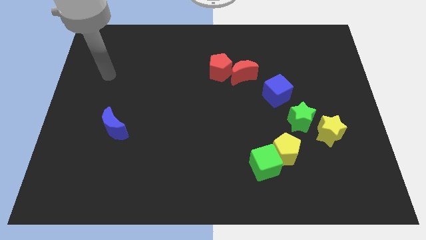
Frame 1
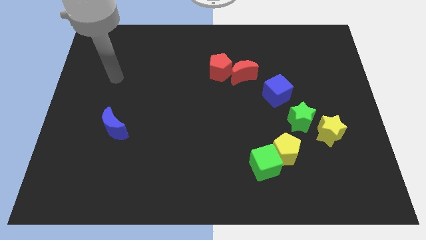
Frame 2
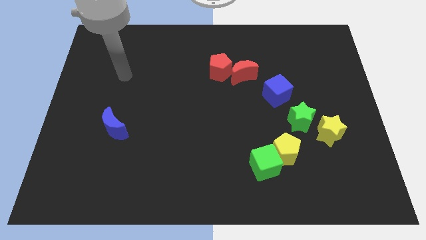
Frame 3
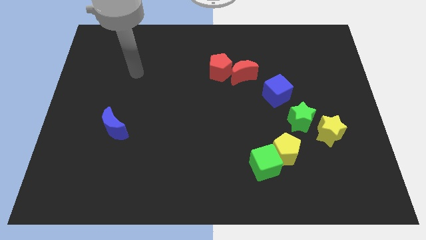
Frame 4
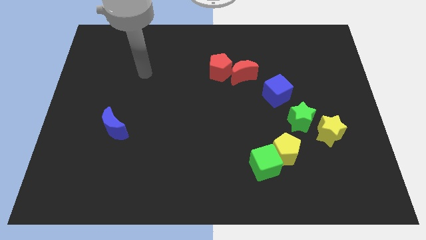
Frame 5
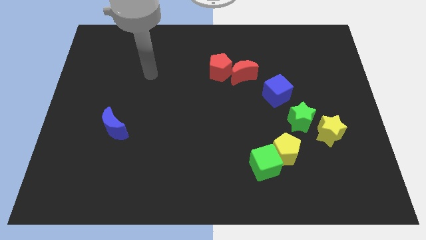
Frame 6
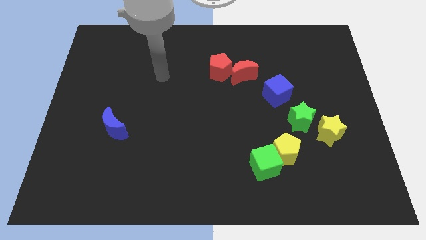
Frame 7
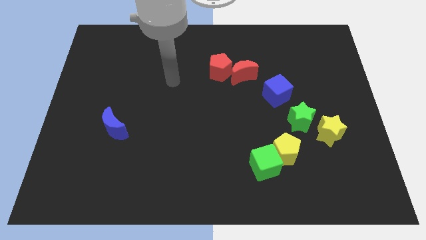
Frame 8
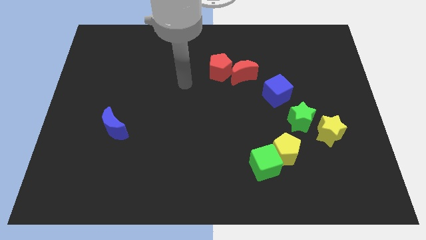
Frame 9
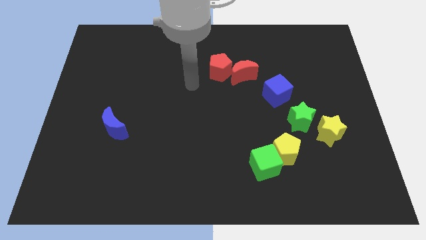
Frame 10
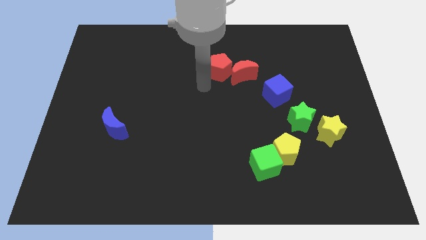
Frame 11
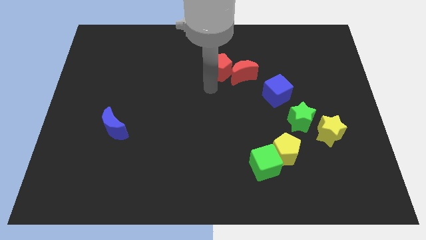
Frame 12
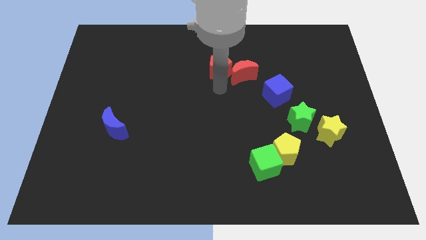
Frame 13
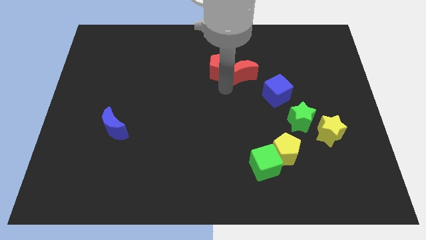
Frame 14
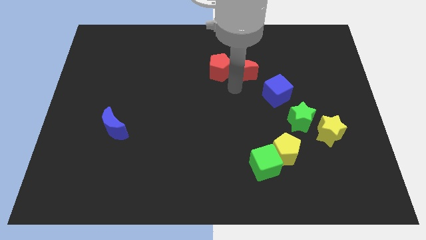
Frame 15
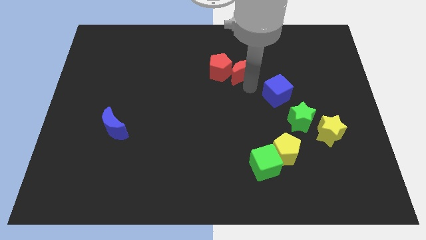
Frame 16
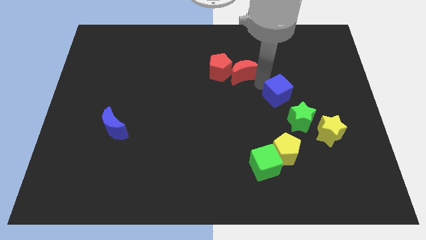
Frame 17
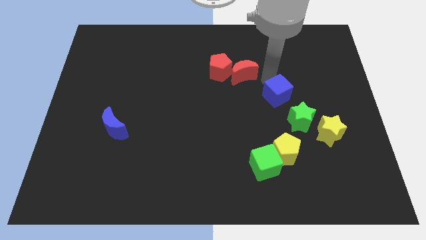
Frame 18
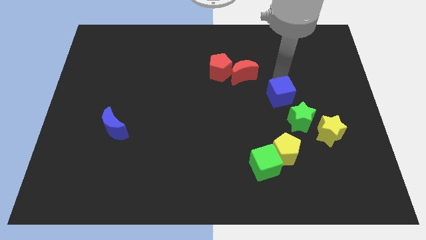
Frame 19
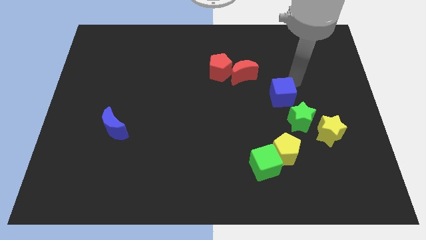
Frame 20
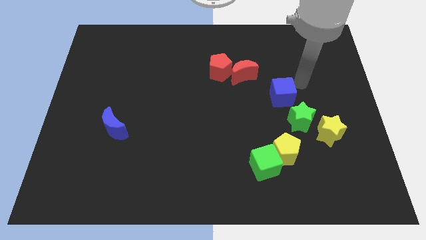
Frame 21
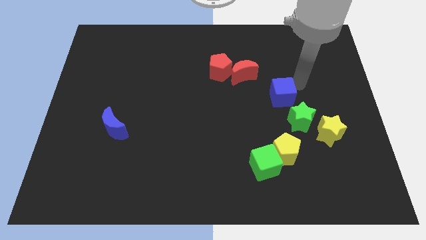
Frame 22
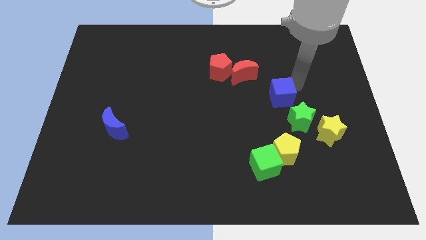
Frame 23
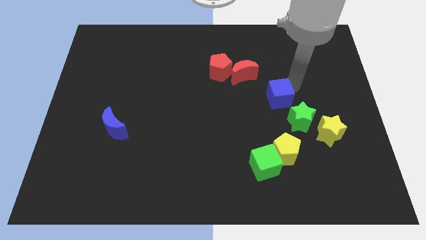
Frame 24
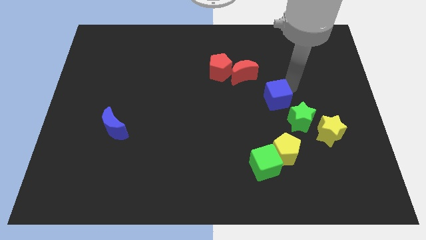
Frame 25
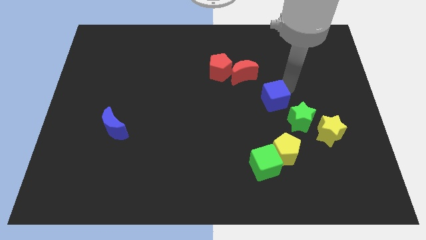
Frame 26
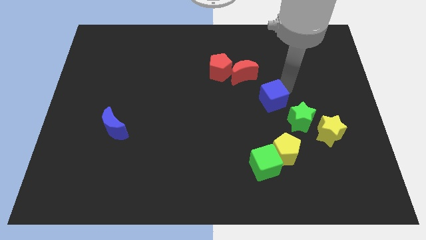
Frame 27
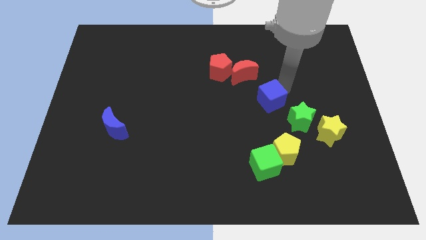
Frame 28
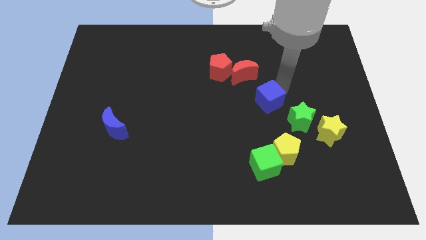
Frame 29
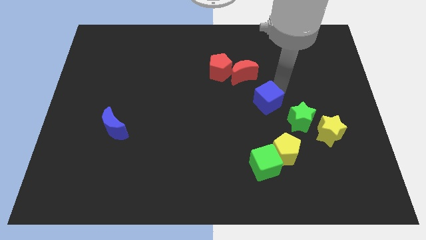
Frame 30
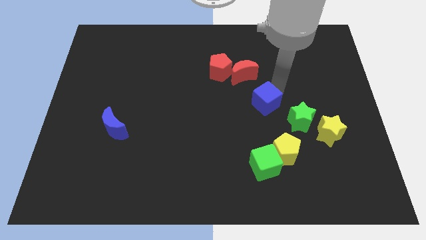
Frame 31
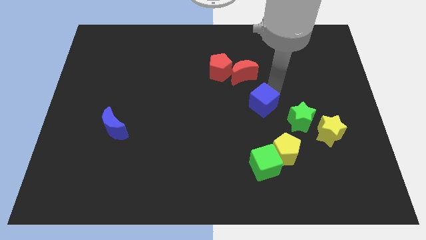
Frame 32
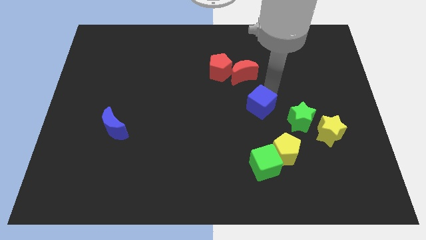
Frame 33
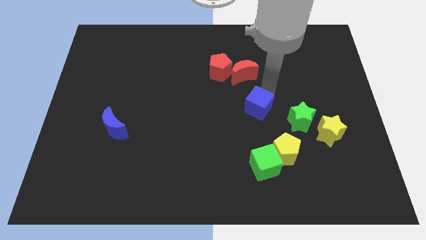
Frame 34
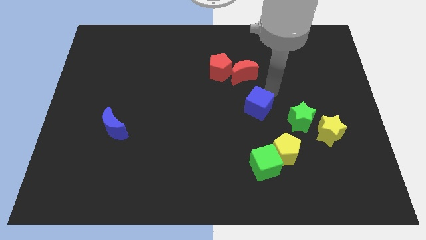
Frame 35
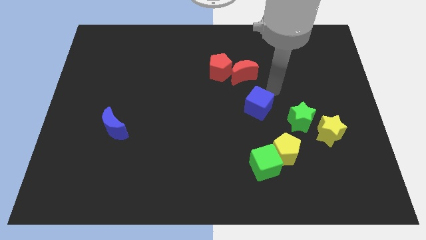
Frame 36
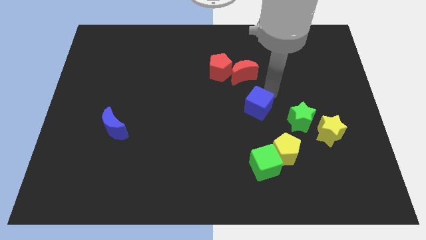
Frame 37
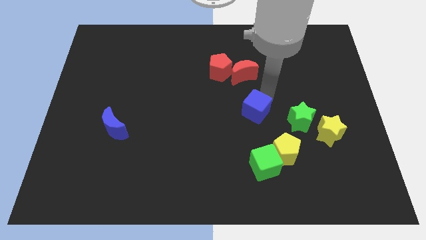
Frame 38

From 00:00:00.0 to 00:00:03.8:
move the blue cube a little bit down and to the left

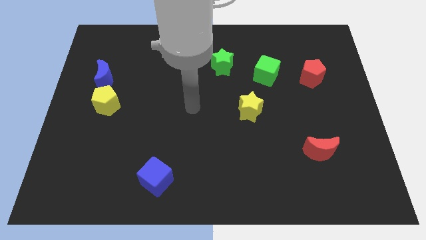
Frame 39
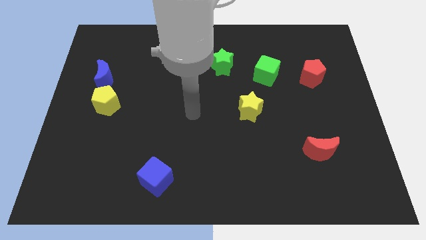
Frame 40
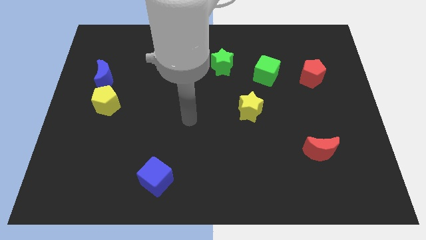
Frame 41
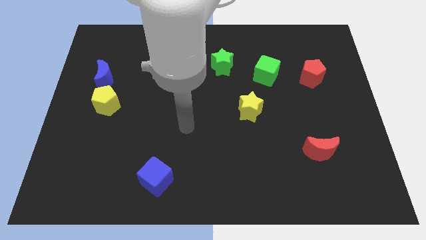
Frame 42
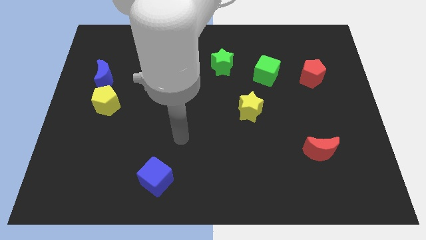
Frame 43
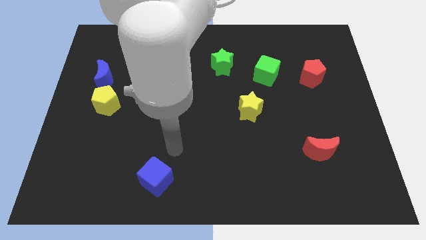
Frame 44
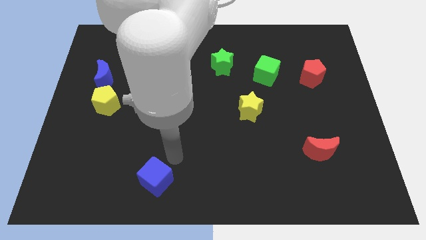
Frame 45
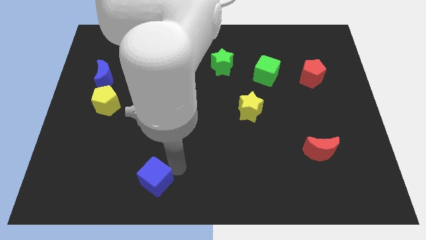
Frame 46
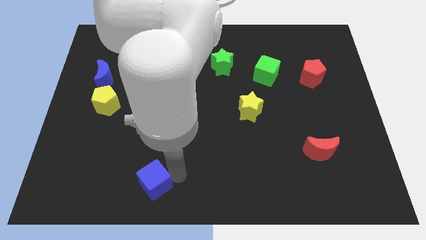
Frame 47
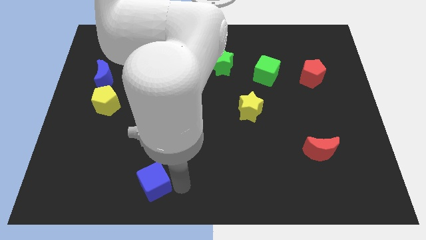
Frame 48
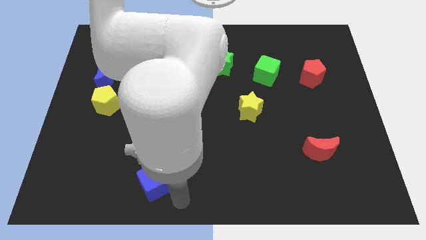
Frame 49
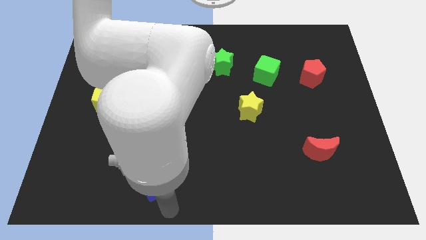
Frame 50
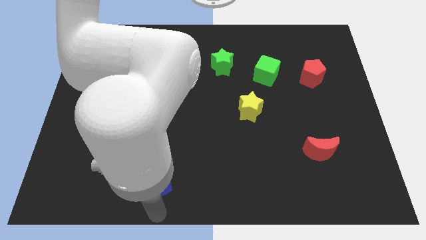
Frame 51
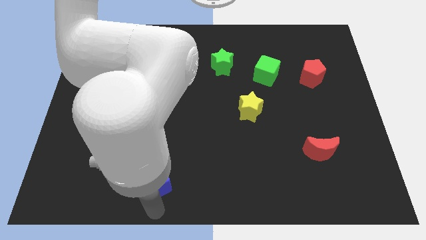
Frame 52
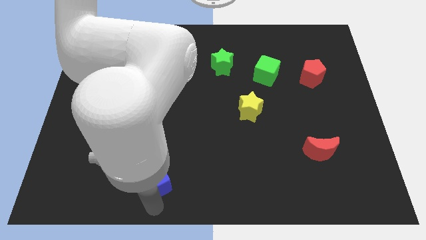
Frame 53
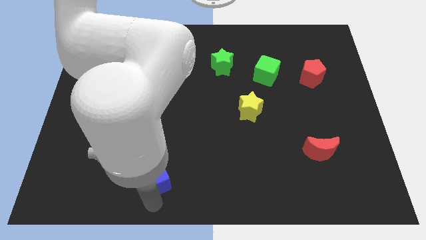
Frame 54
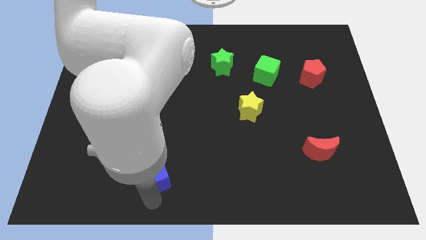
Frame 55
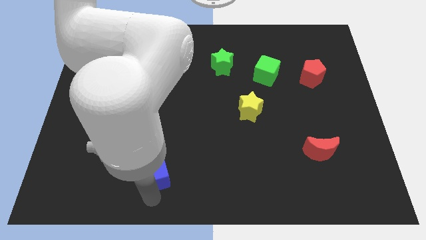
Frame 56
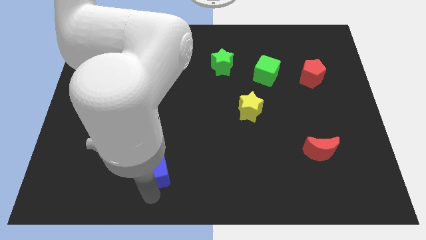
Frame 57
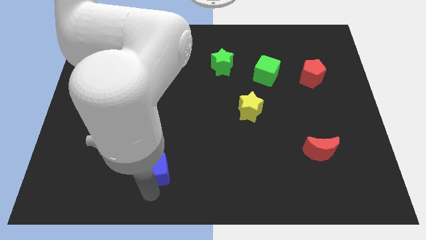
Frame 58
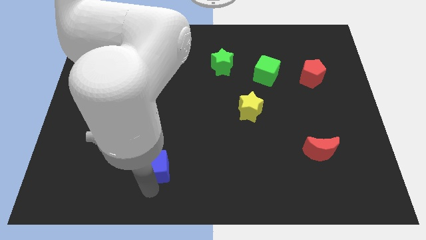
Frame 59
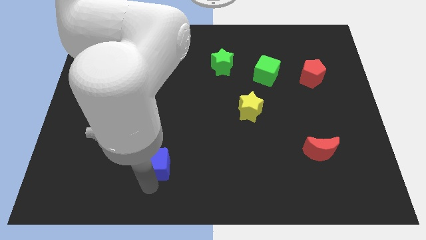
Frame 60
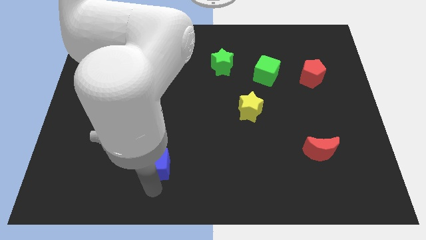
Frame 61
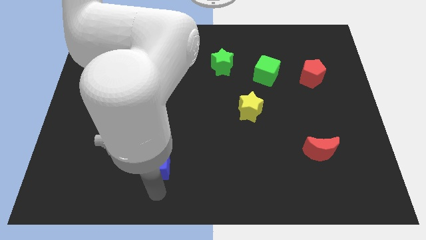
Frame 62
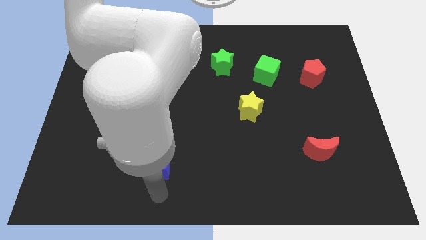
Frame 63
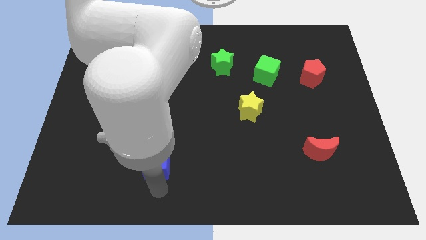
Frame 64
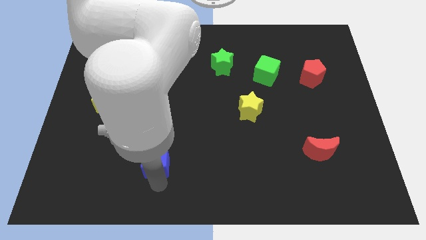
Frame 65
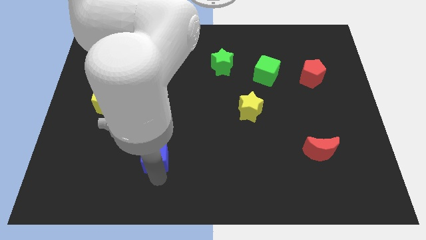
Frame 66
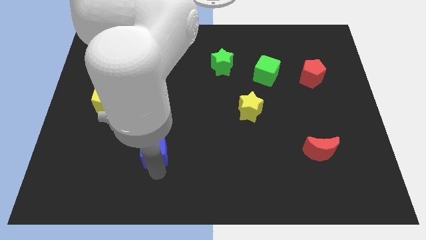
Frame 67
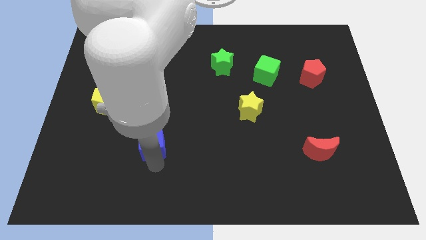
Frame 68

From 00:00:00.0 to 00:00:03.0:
move the blue cube a little bit up

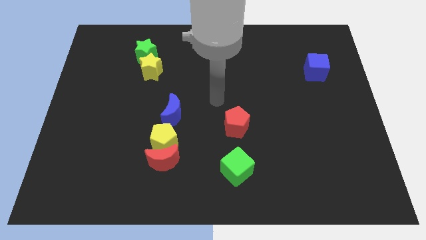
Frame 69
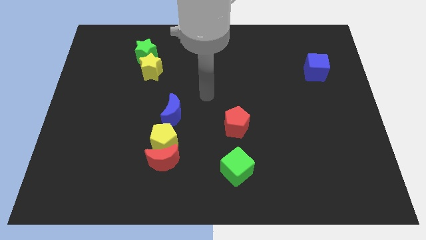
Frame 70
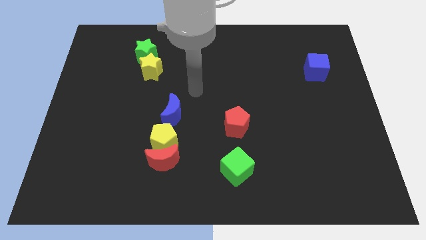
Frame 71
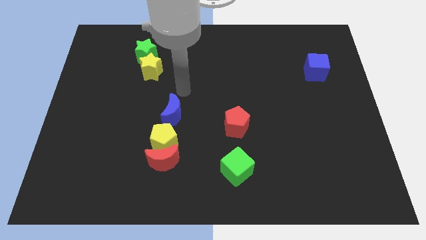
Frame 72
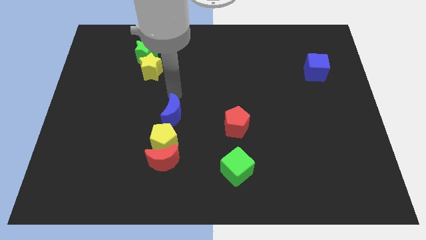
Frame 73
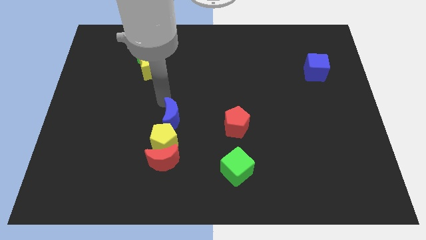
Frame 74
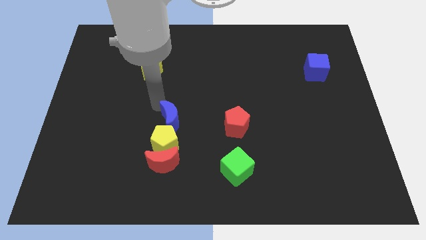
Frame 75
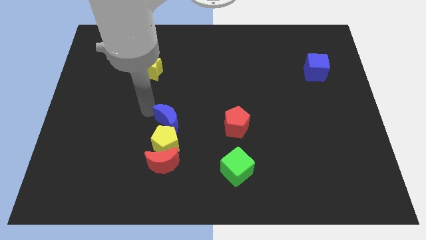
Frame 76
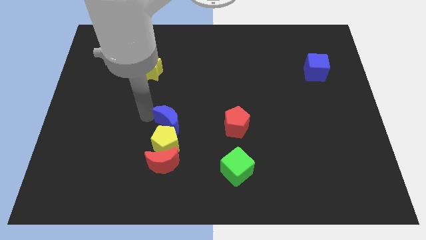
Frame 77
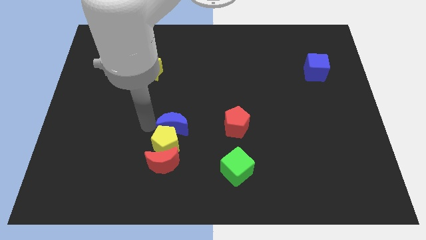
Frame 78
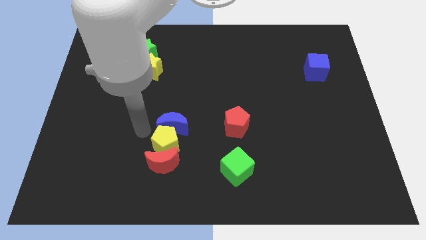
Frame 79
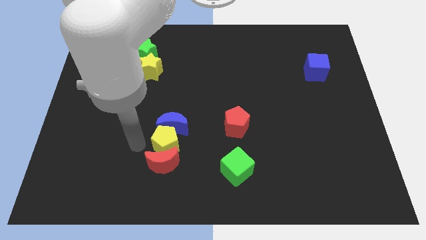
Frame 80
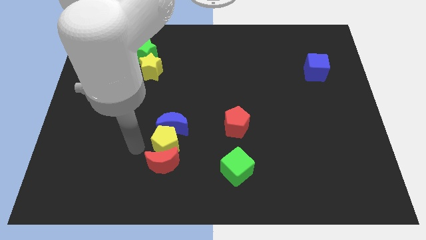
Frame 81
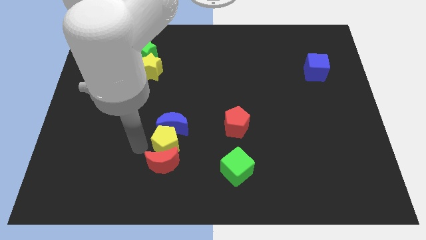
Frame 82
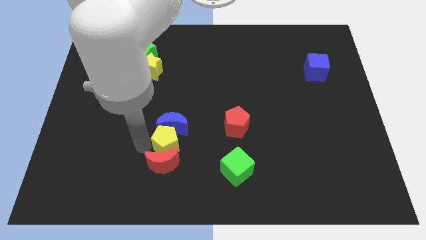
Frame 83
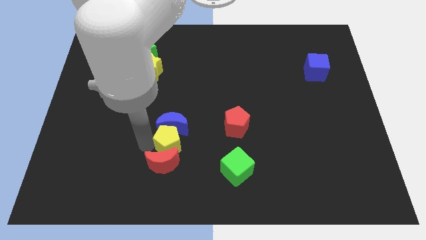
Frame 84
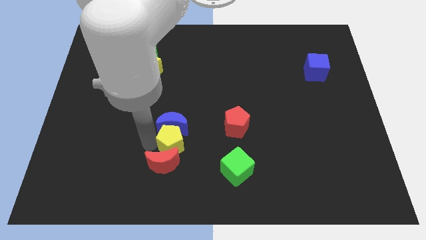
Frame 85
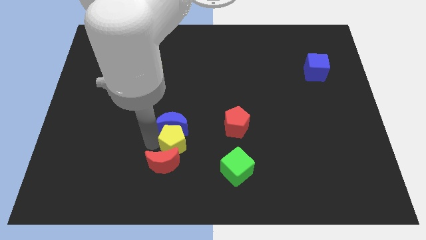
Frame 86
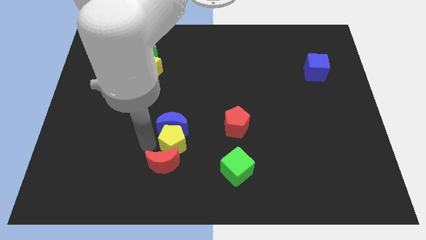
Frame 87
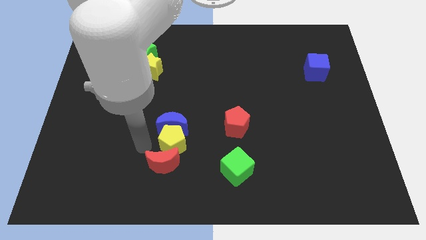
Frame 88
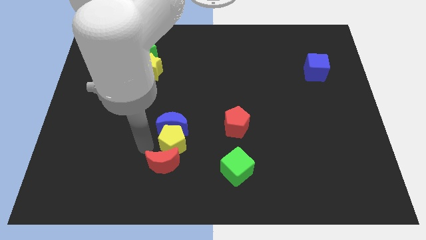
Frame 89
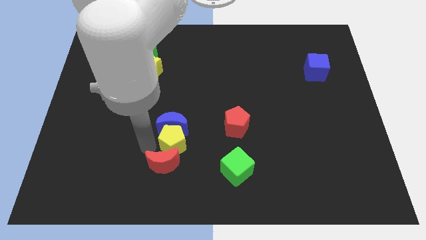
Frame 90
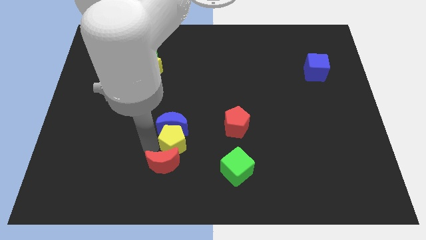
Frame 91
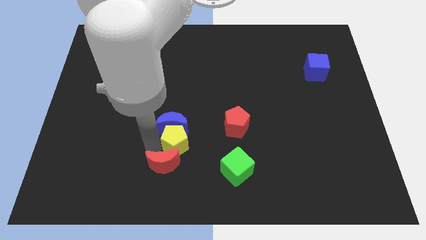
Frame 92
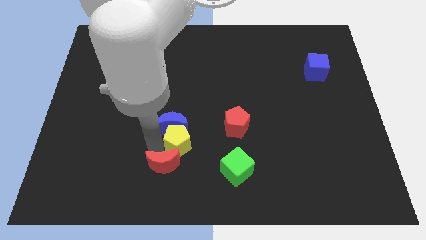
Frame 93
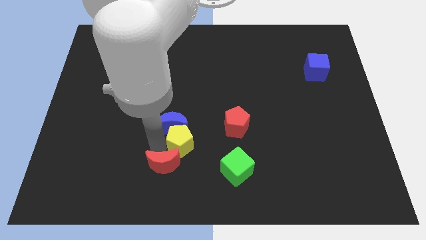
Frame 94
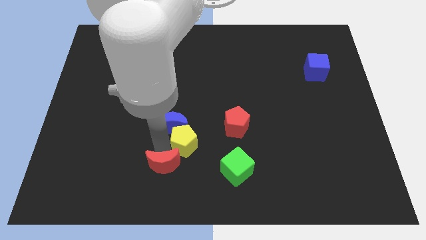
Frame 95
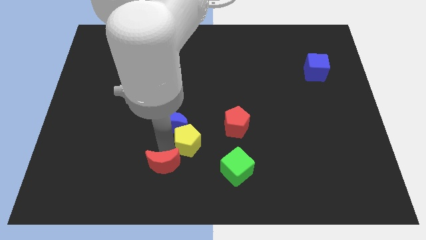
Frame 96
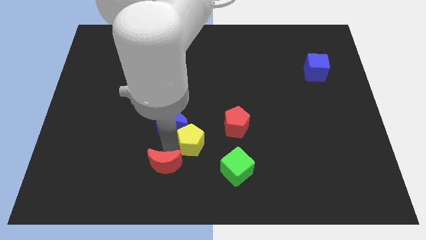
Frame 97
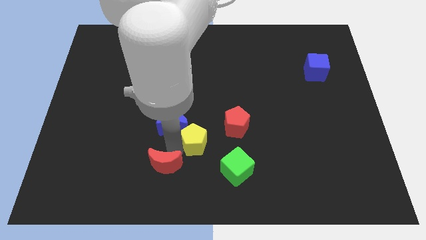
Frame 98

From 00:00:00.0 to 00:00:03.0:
push the yellow pentagon a little right
